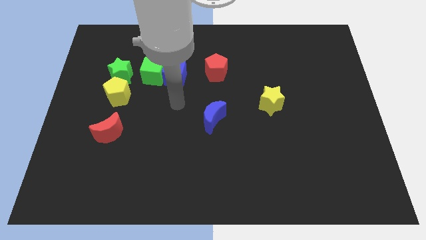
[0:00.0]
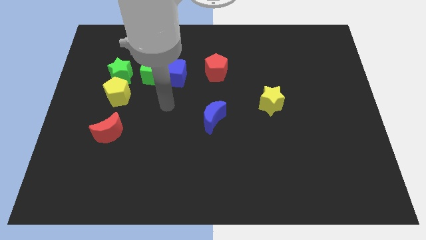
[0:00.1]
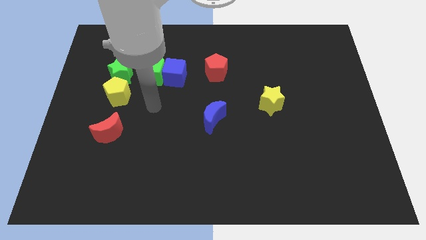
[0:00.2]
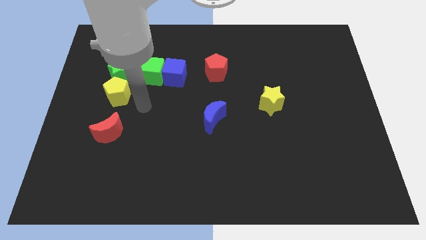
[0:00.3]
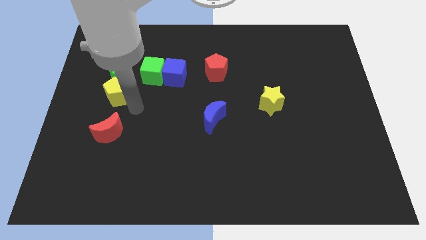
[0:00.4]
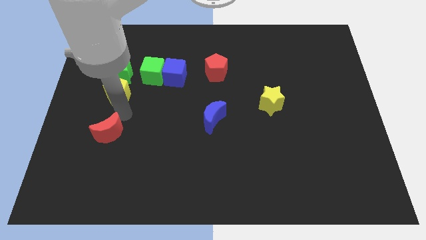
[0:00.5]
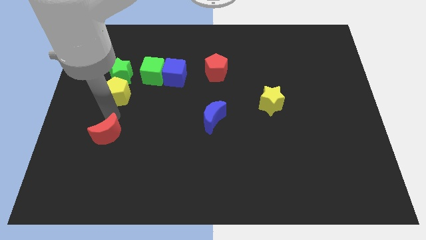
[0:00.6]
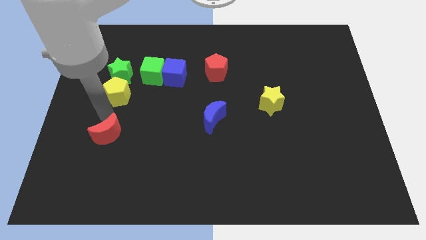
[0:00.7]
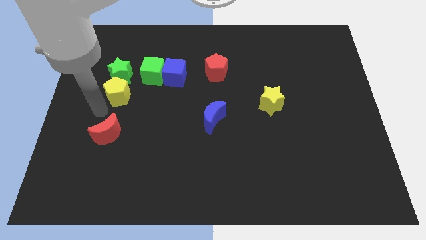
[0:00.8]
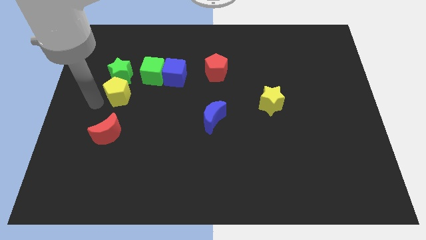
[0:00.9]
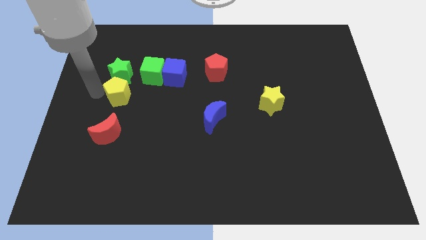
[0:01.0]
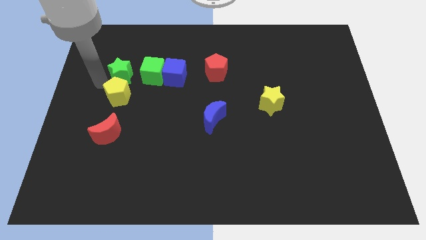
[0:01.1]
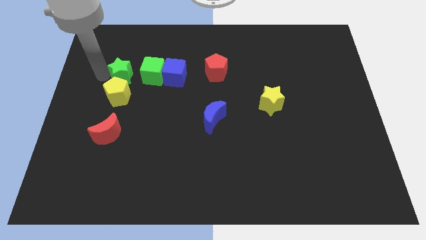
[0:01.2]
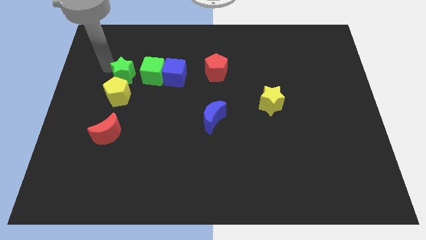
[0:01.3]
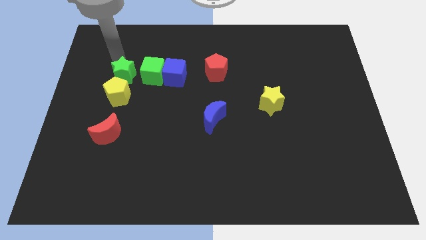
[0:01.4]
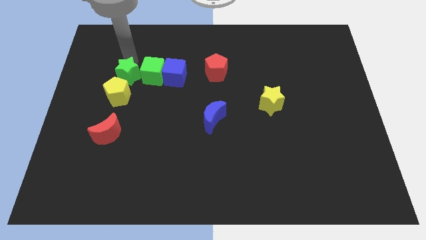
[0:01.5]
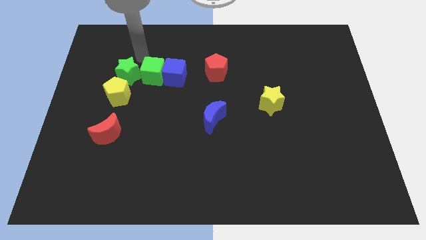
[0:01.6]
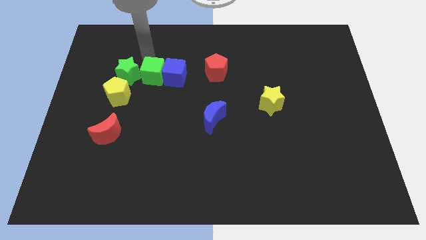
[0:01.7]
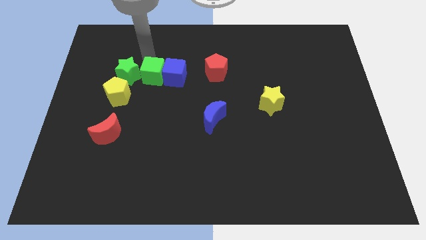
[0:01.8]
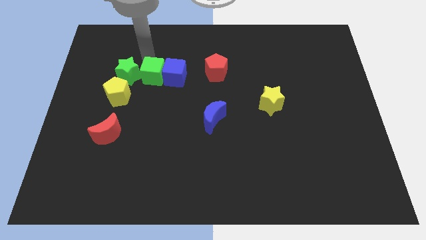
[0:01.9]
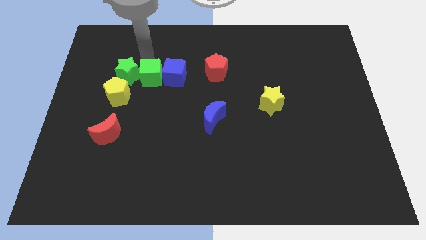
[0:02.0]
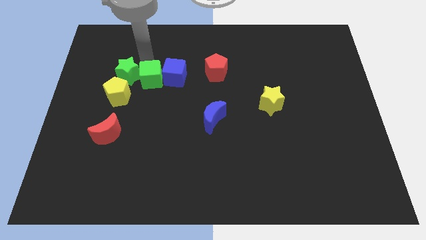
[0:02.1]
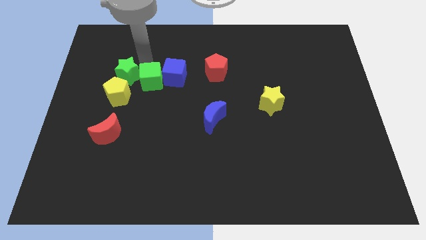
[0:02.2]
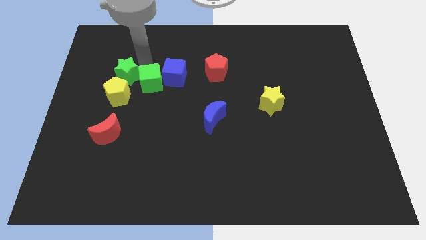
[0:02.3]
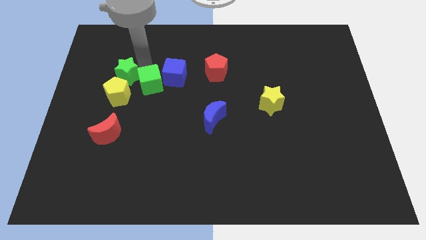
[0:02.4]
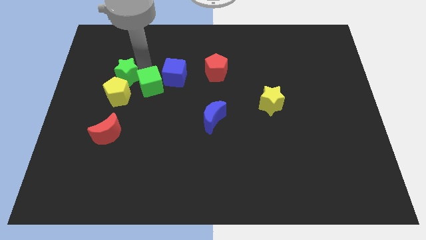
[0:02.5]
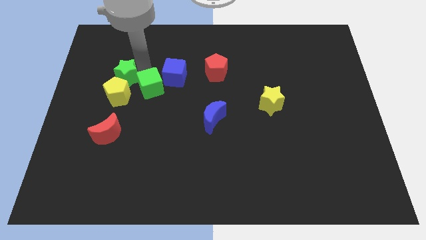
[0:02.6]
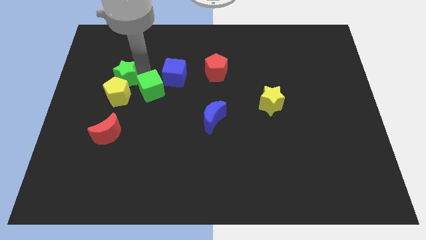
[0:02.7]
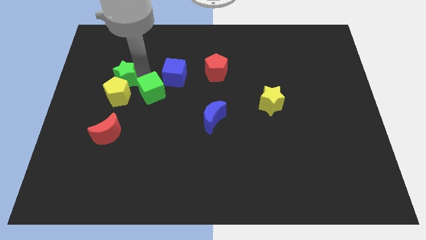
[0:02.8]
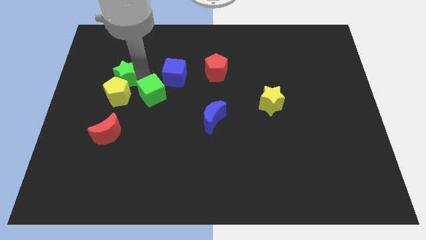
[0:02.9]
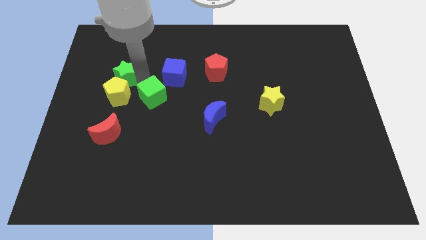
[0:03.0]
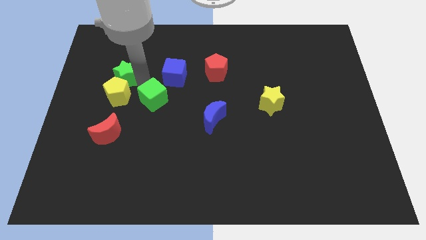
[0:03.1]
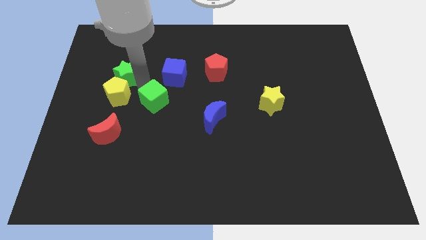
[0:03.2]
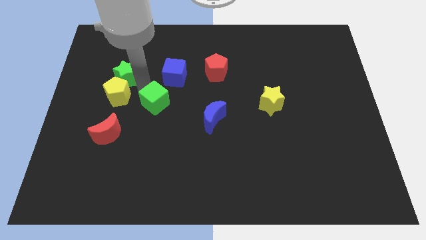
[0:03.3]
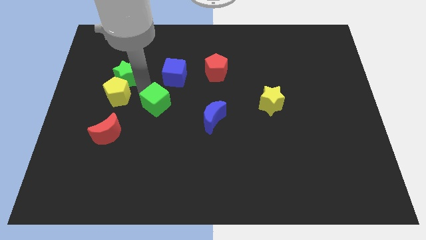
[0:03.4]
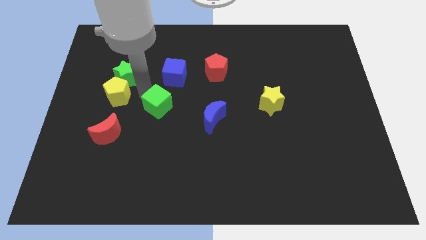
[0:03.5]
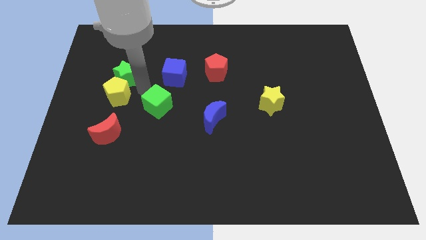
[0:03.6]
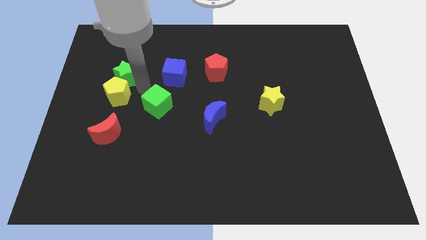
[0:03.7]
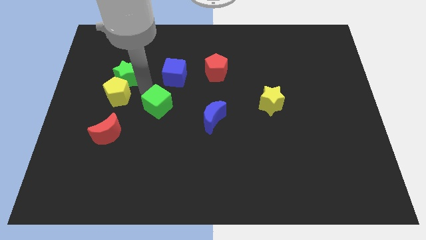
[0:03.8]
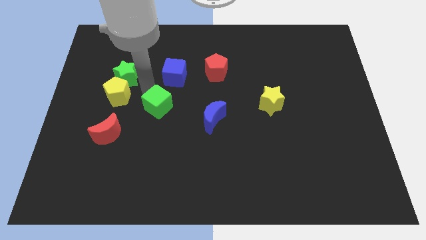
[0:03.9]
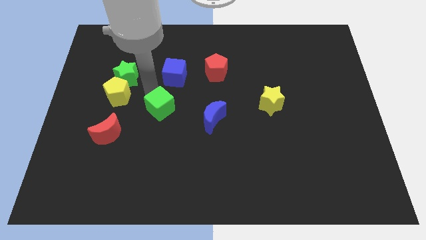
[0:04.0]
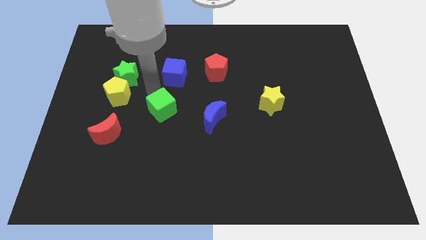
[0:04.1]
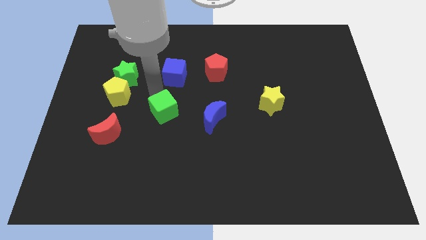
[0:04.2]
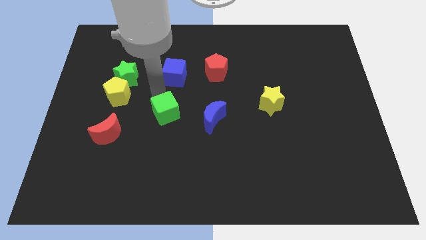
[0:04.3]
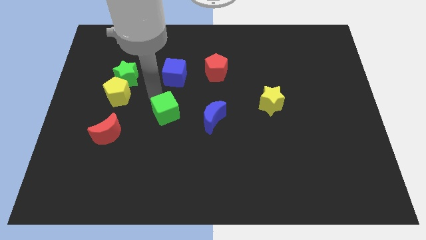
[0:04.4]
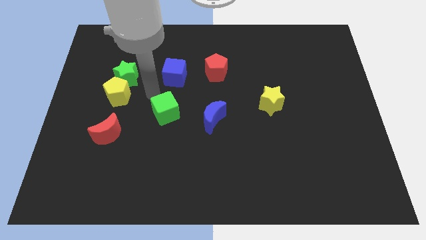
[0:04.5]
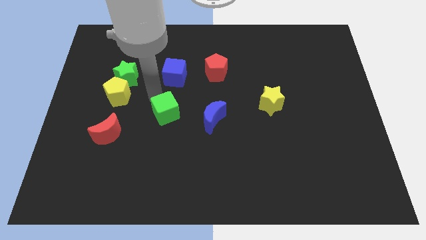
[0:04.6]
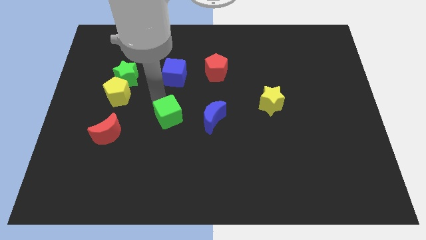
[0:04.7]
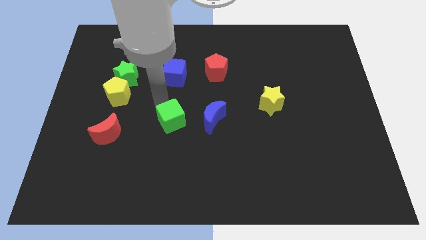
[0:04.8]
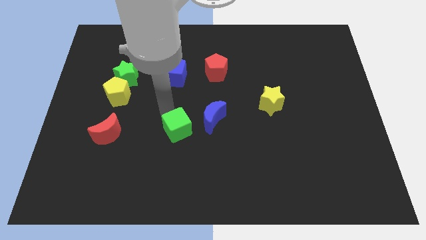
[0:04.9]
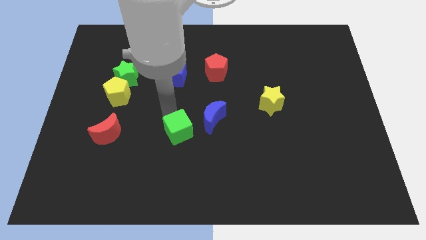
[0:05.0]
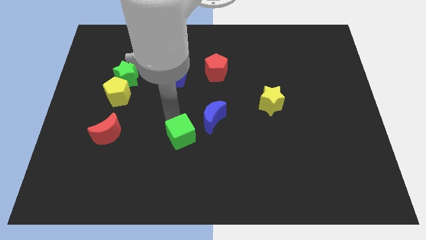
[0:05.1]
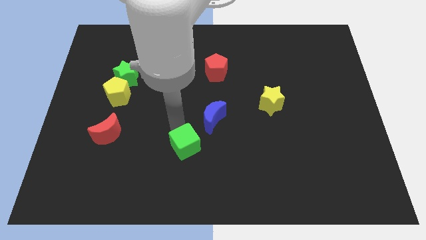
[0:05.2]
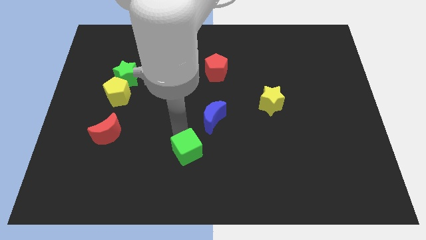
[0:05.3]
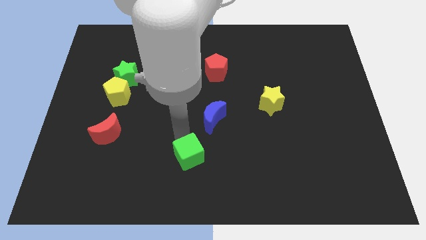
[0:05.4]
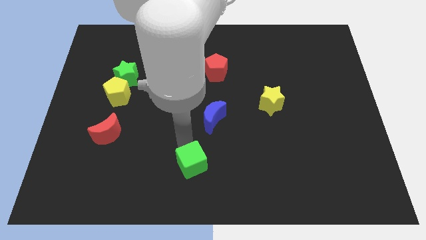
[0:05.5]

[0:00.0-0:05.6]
put the green cube to the bottom side
